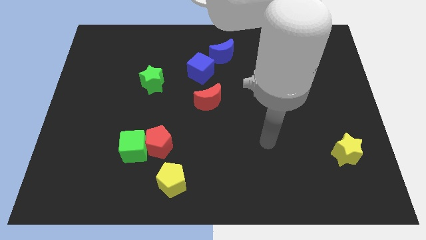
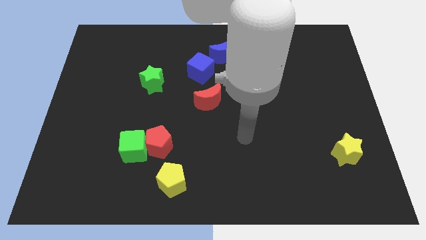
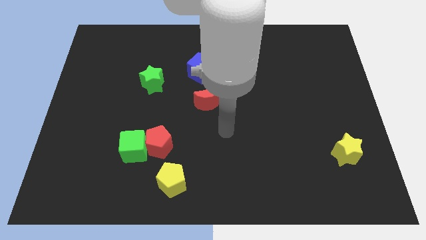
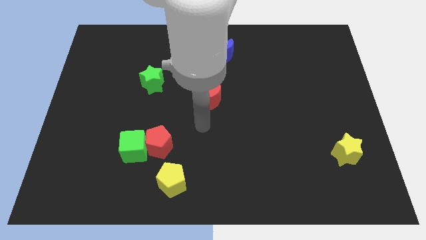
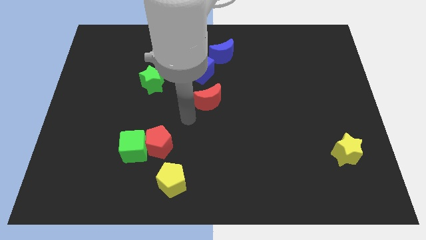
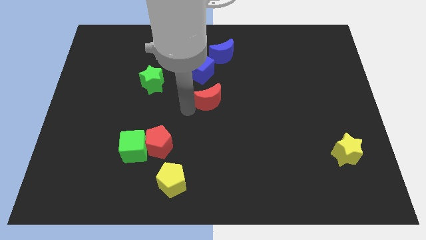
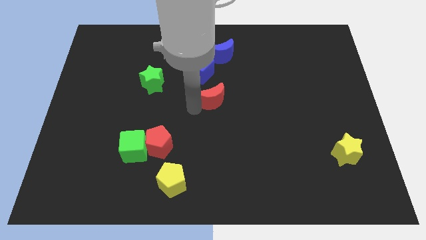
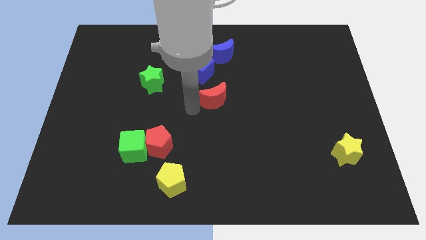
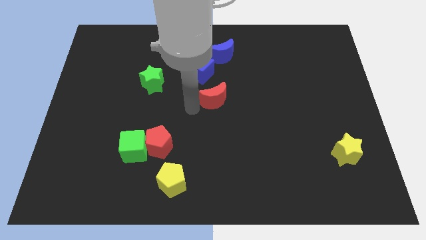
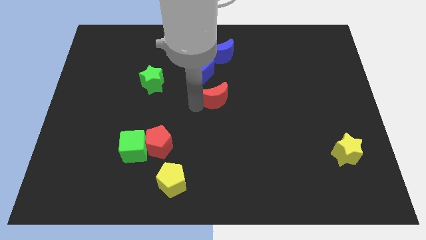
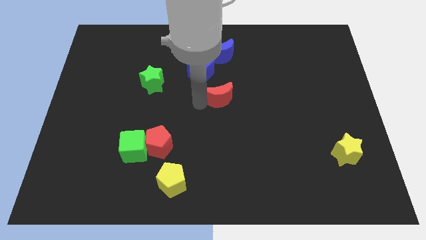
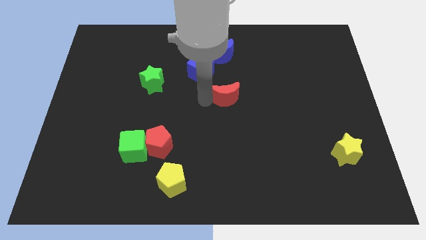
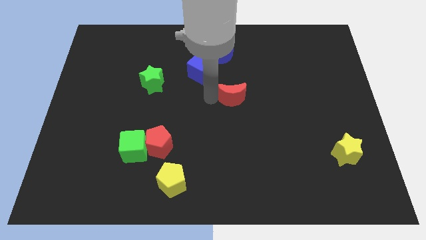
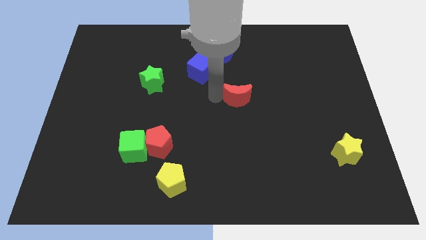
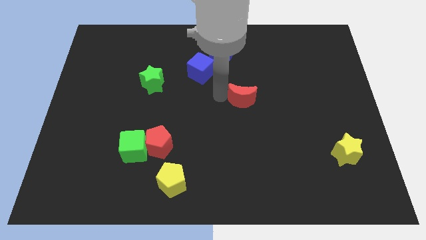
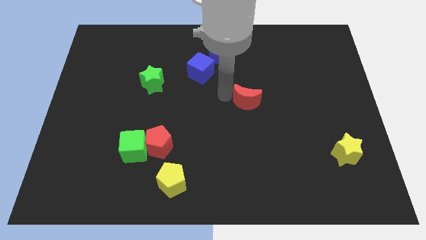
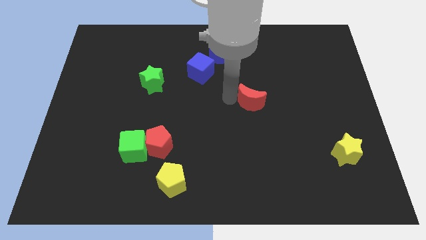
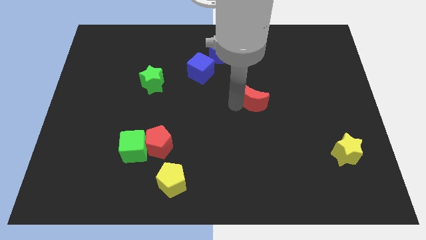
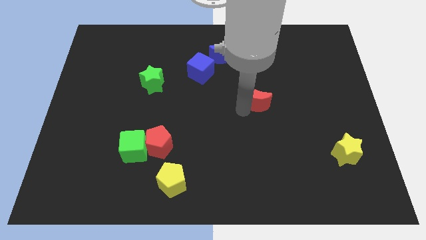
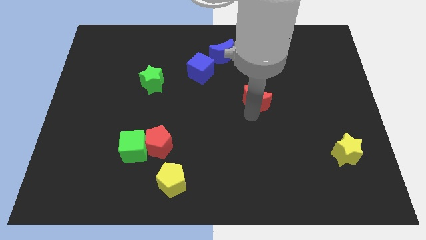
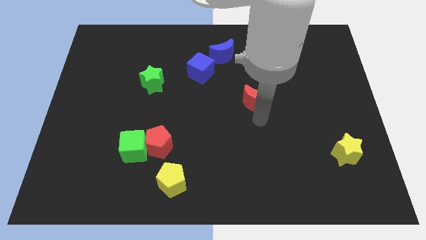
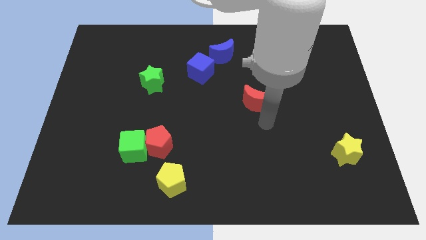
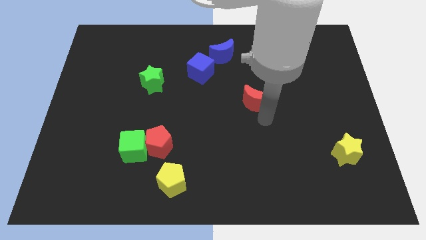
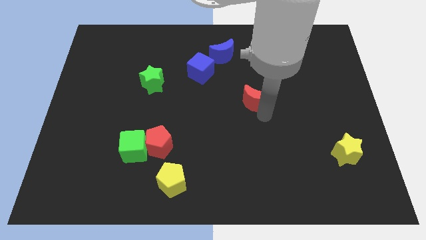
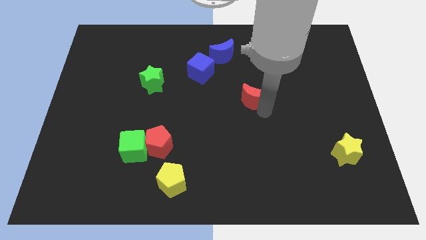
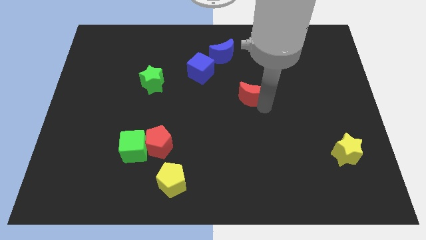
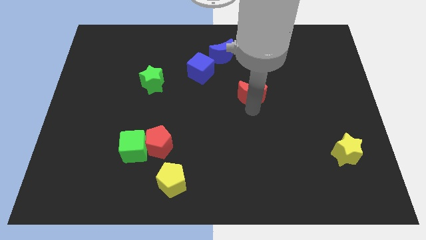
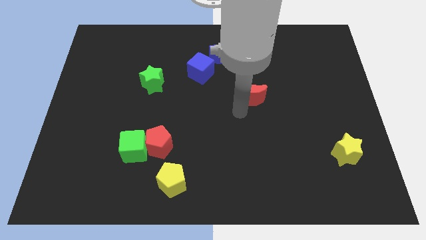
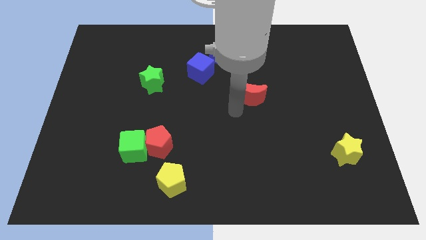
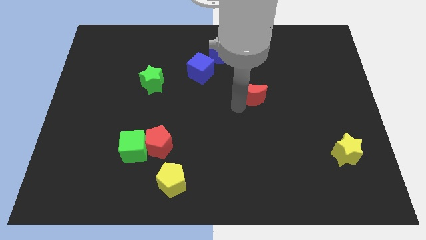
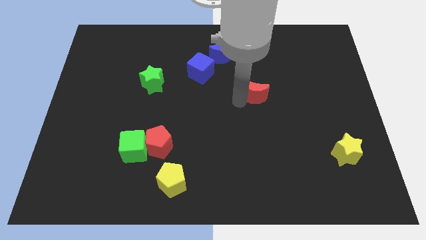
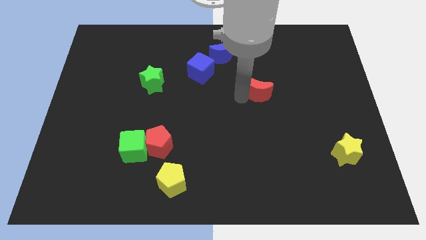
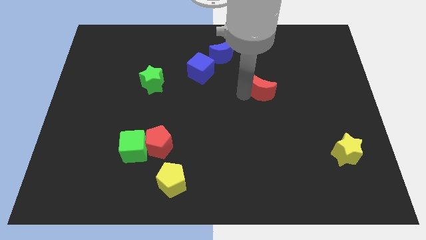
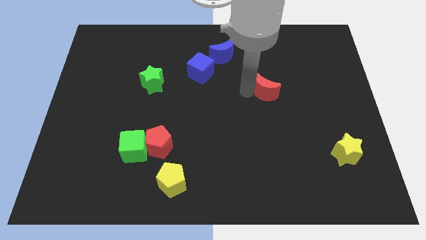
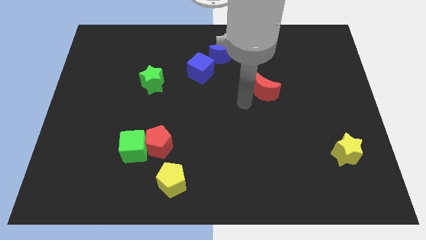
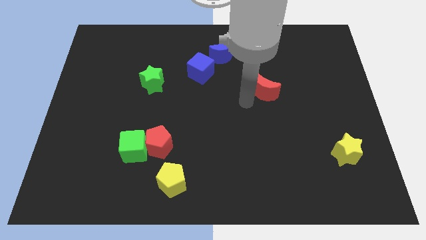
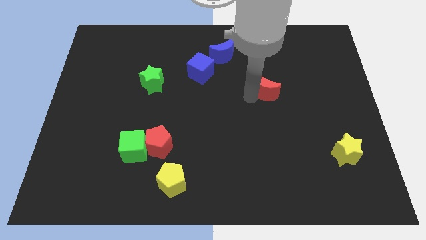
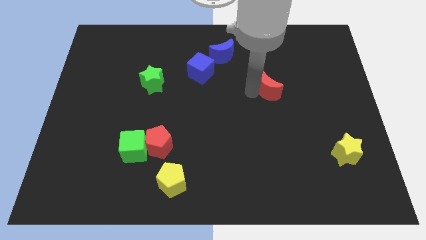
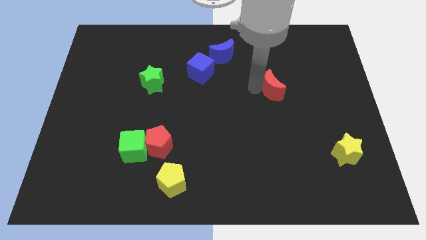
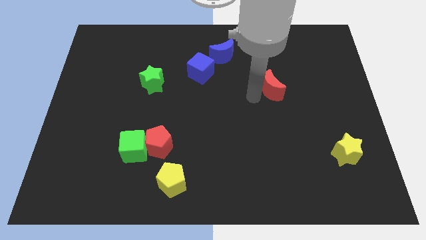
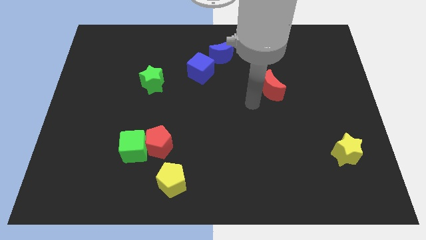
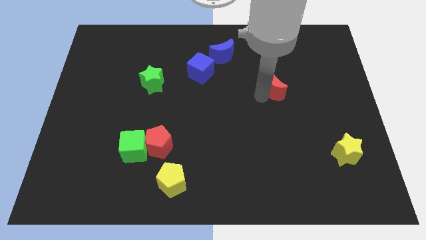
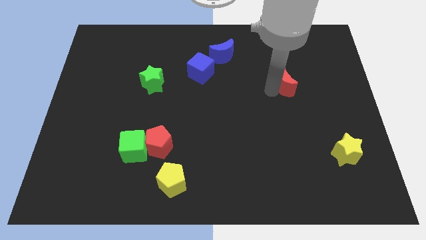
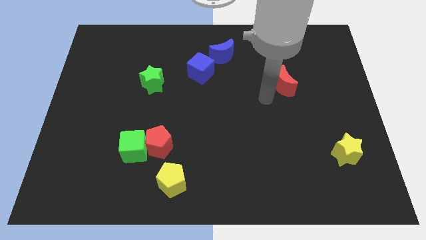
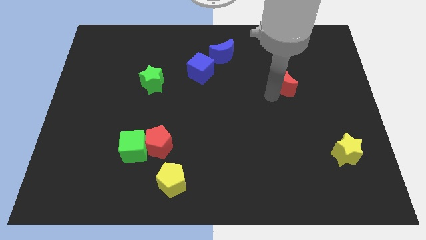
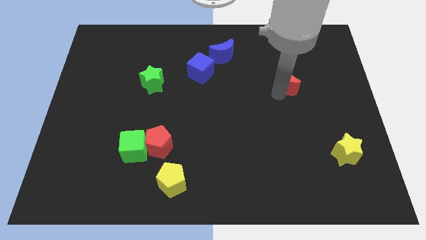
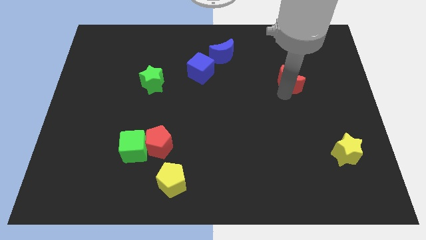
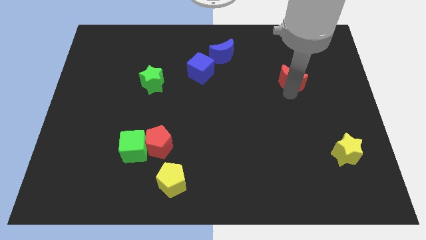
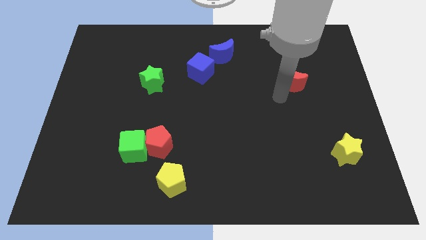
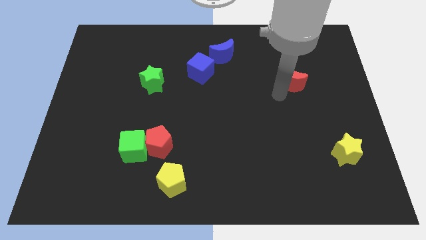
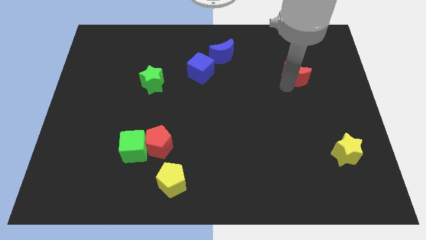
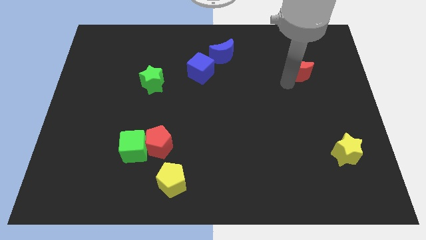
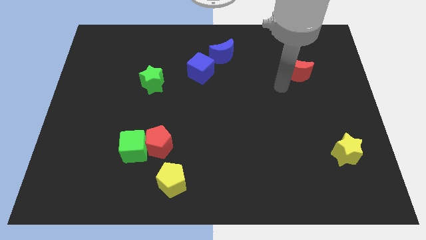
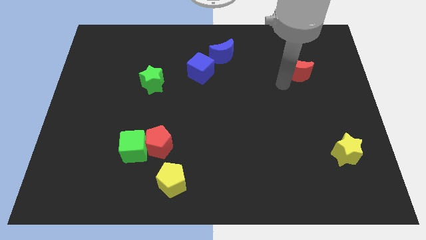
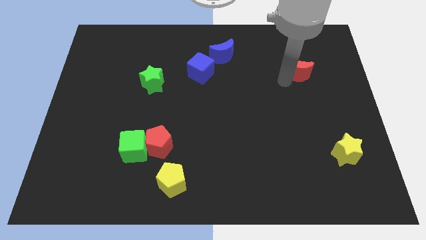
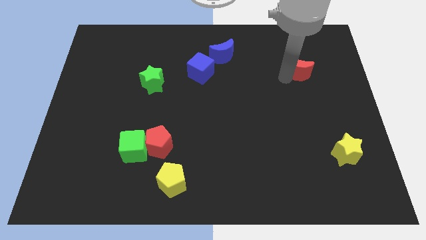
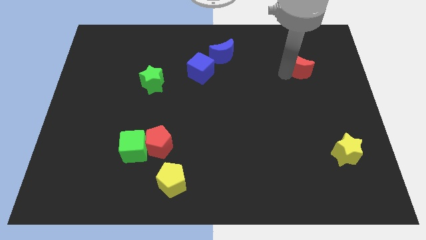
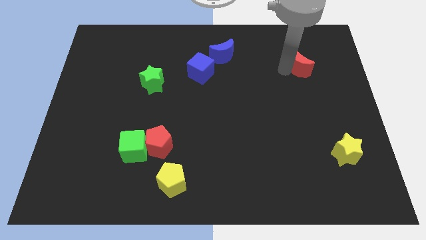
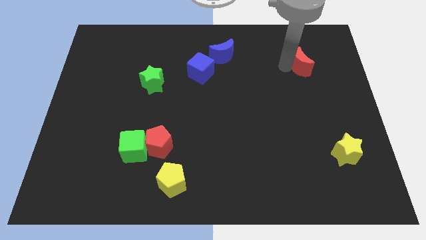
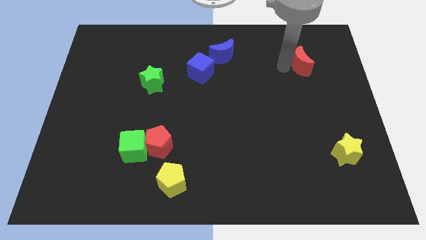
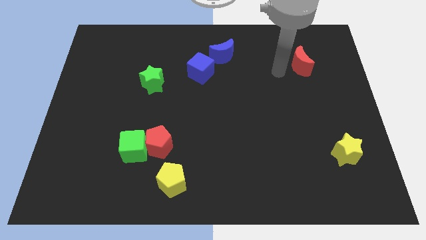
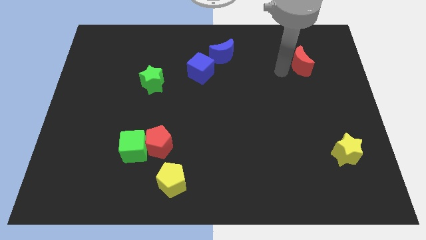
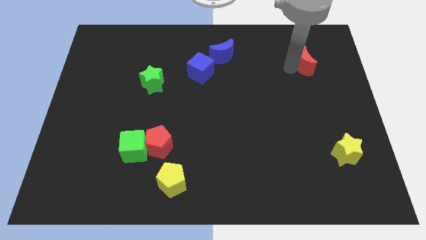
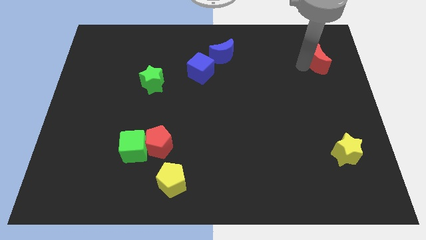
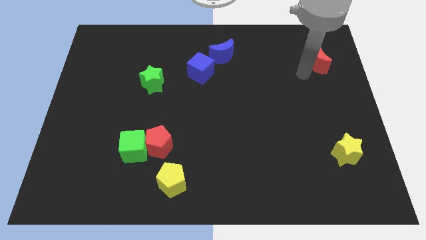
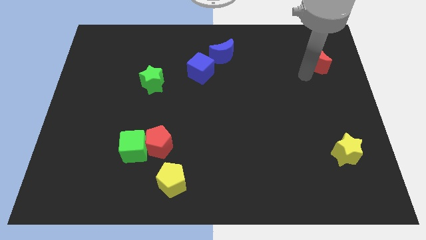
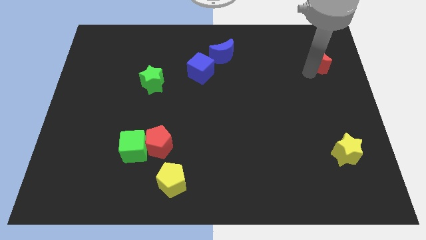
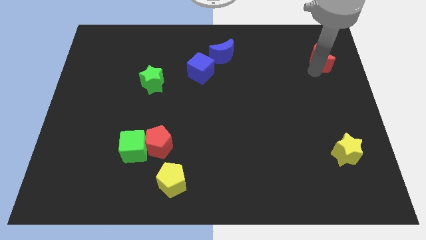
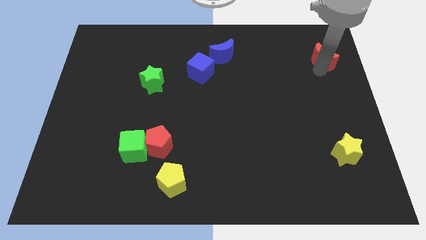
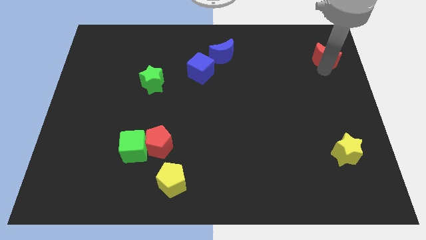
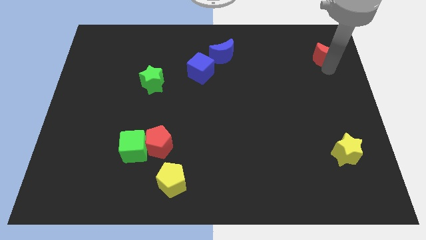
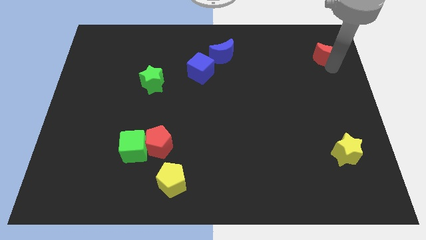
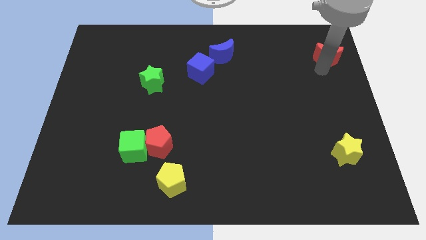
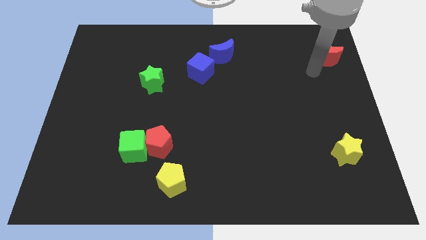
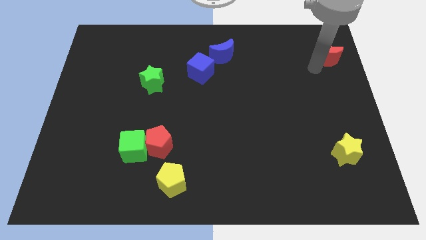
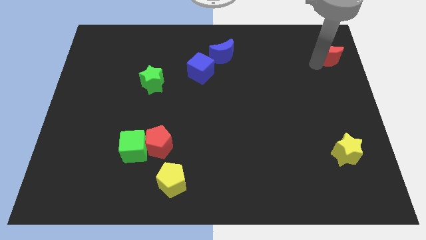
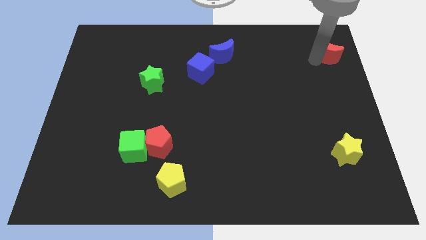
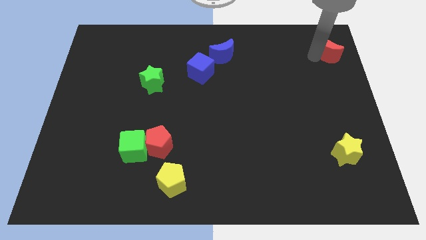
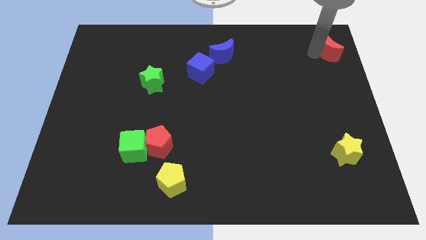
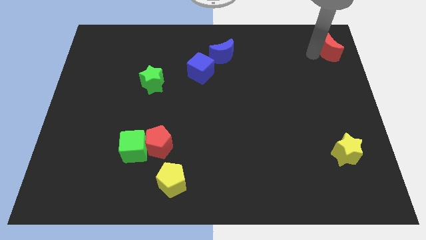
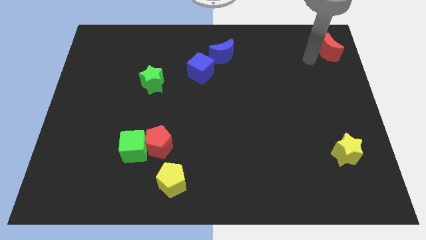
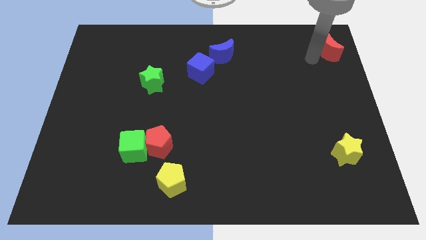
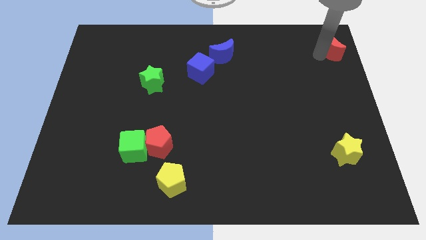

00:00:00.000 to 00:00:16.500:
move the red moon to the top right of the board
